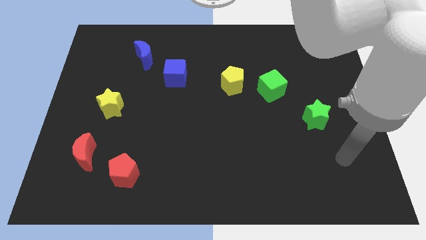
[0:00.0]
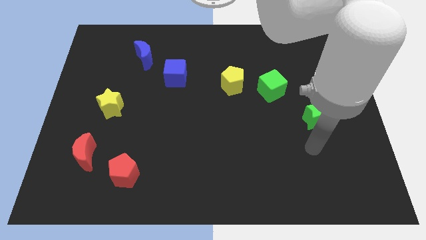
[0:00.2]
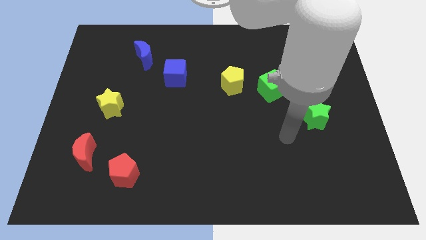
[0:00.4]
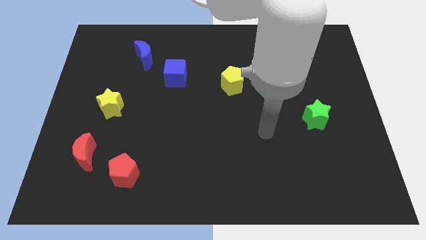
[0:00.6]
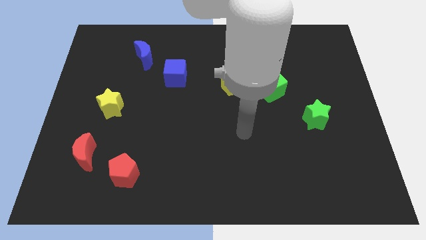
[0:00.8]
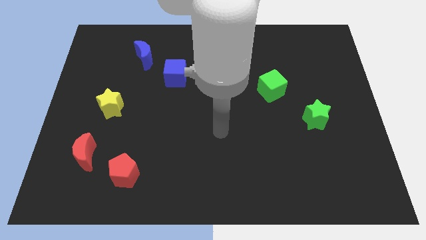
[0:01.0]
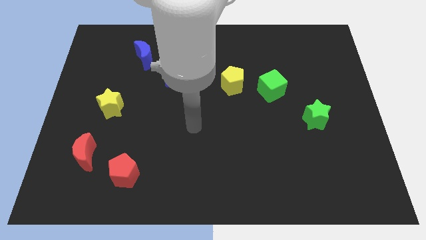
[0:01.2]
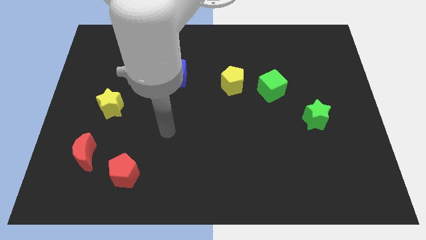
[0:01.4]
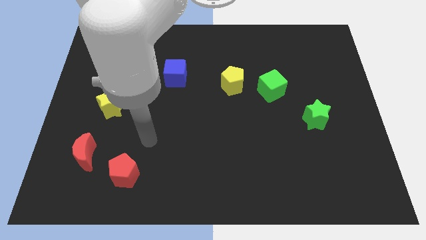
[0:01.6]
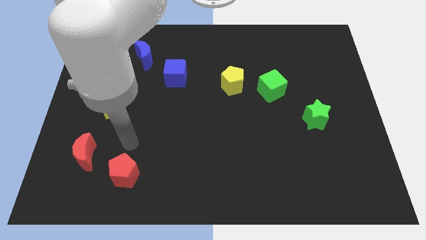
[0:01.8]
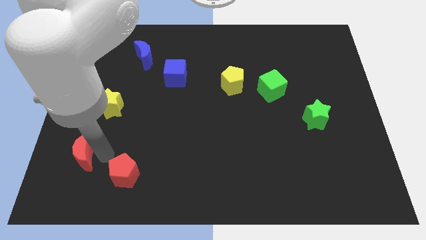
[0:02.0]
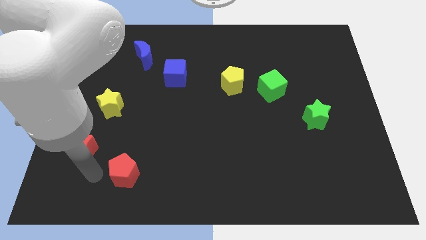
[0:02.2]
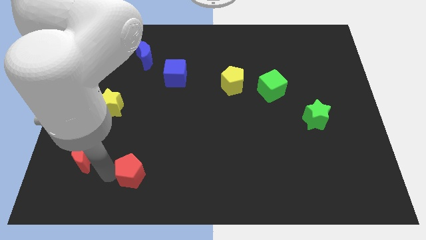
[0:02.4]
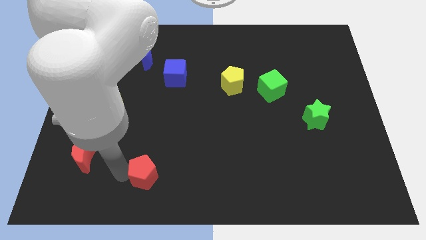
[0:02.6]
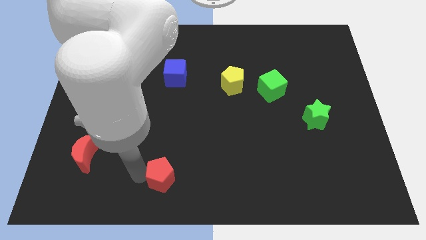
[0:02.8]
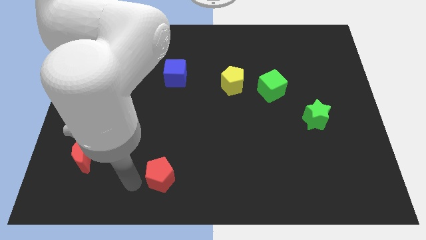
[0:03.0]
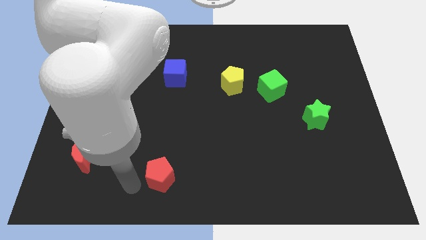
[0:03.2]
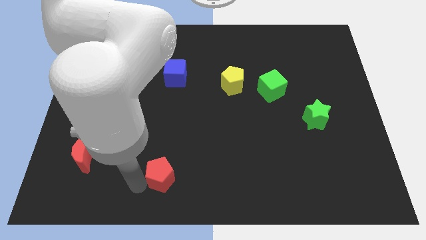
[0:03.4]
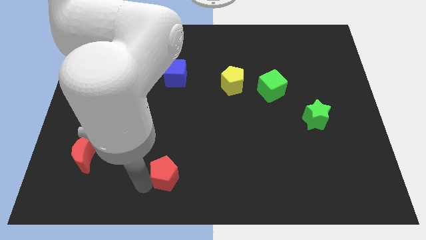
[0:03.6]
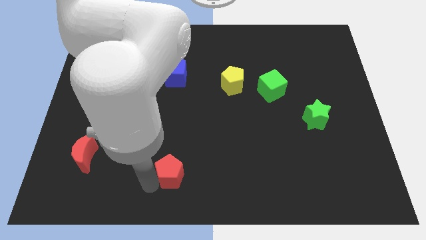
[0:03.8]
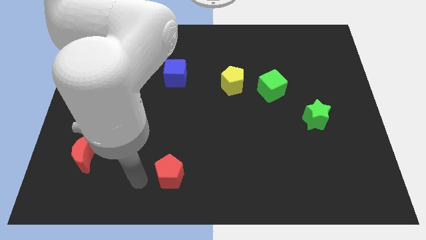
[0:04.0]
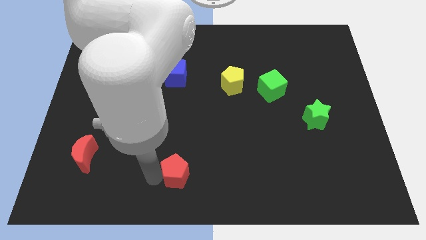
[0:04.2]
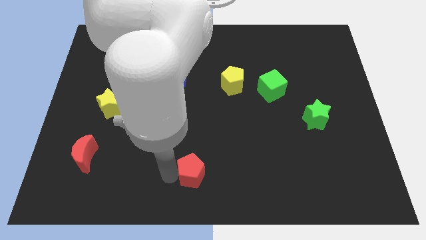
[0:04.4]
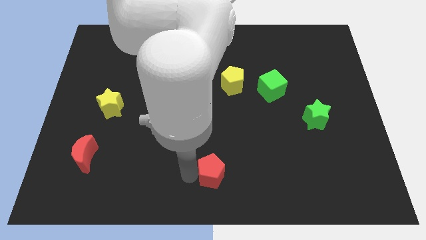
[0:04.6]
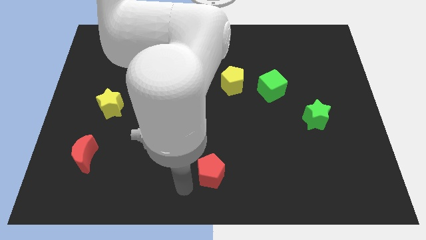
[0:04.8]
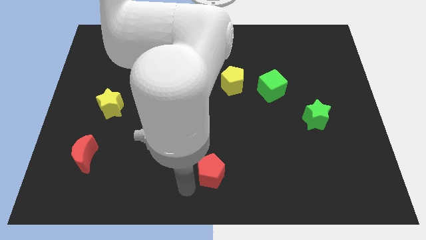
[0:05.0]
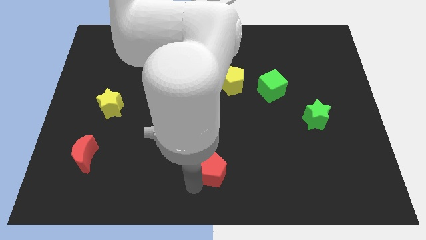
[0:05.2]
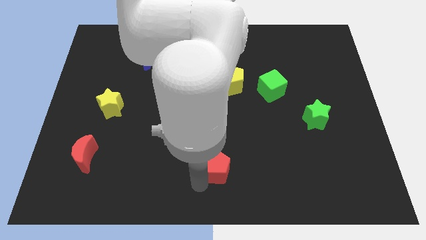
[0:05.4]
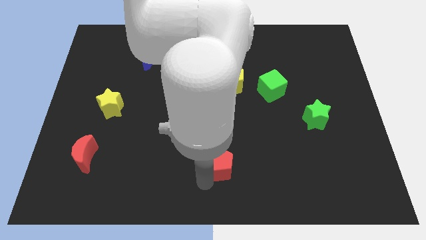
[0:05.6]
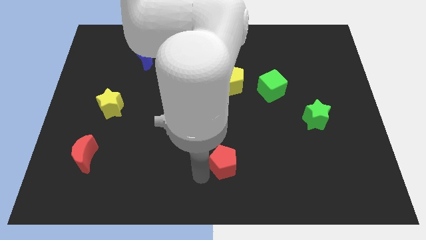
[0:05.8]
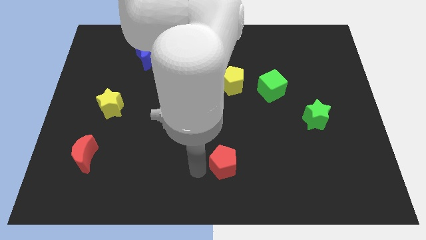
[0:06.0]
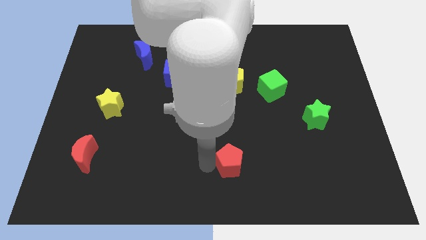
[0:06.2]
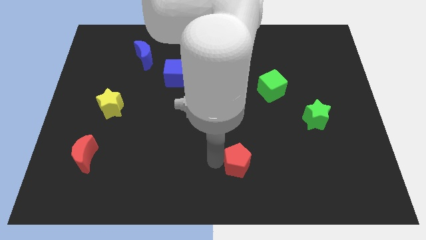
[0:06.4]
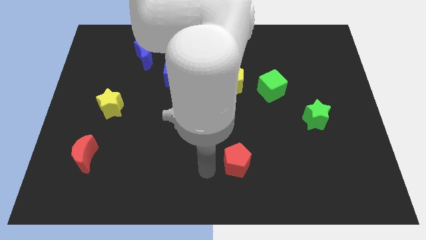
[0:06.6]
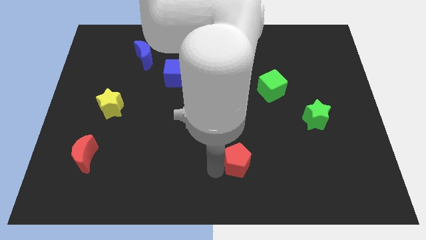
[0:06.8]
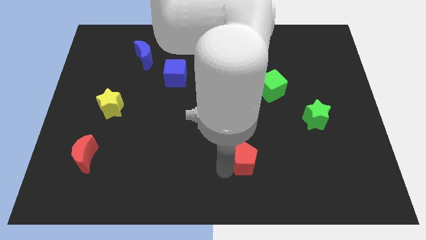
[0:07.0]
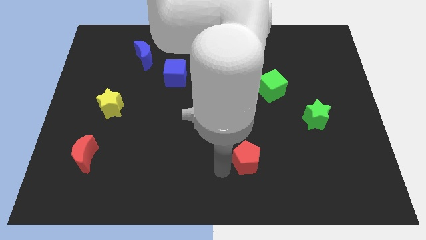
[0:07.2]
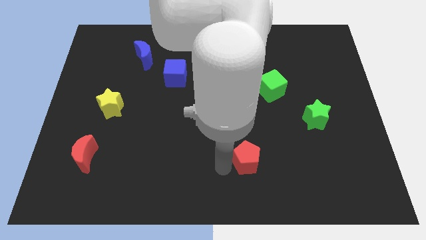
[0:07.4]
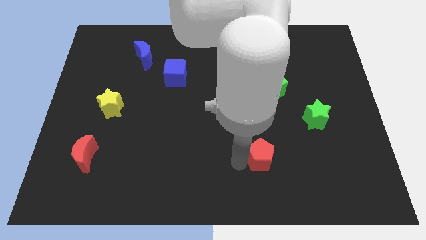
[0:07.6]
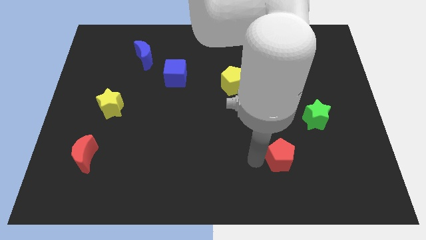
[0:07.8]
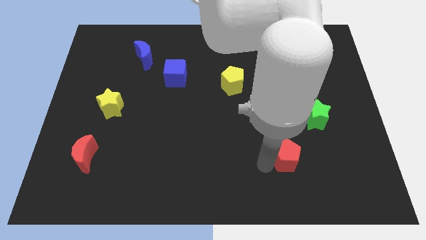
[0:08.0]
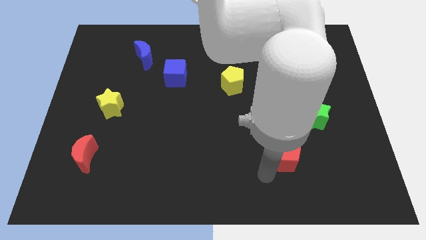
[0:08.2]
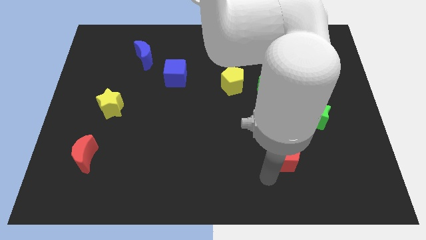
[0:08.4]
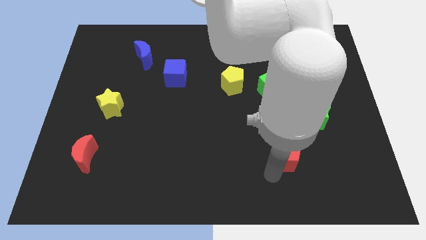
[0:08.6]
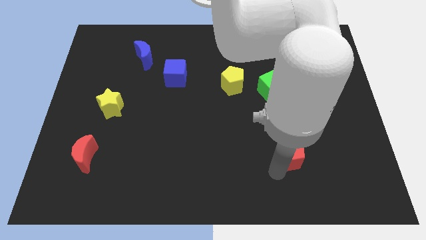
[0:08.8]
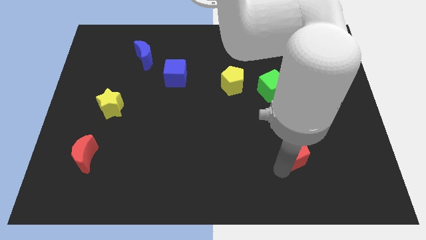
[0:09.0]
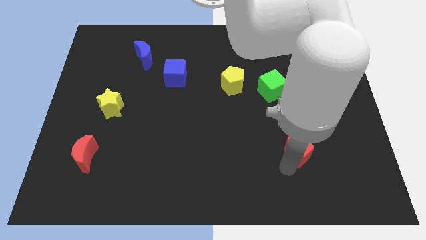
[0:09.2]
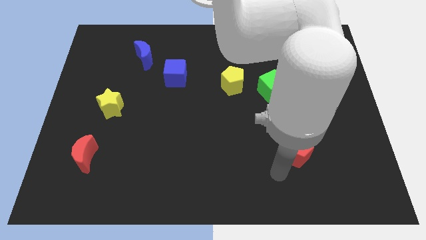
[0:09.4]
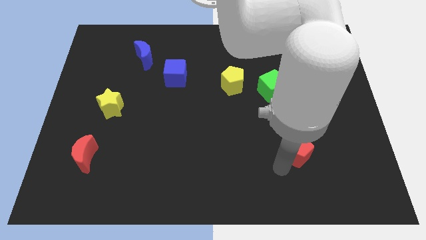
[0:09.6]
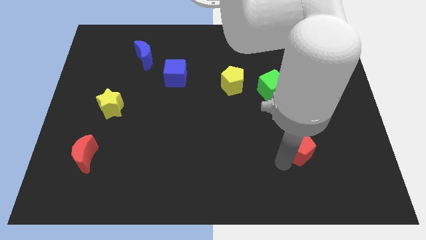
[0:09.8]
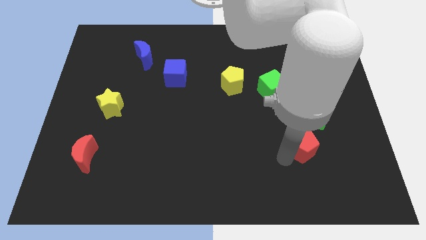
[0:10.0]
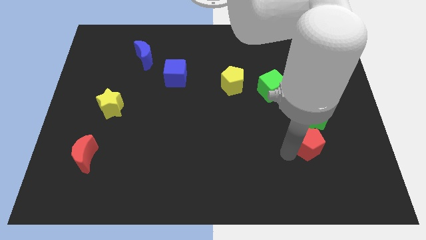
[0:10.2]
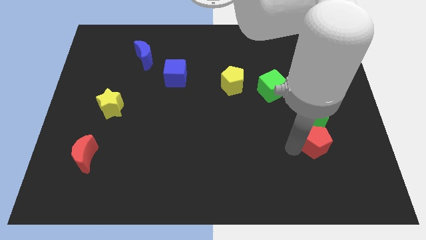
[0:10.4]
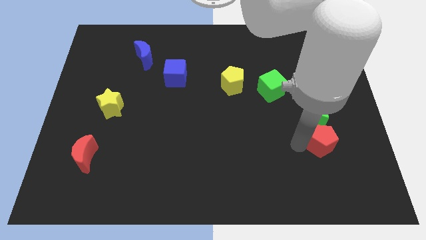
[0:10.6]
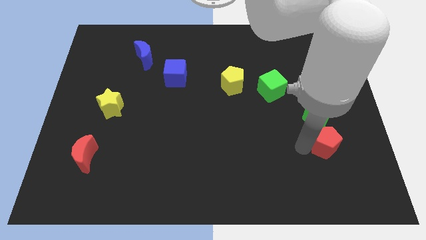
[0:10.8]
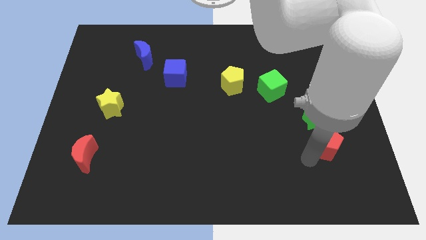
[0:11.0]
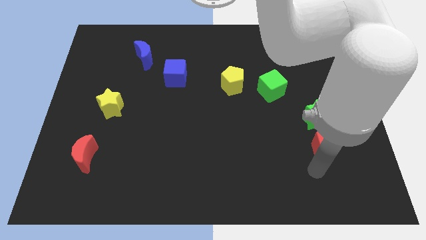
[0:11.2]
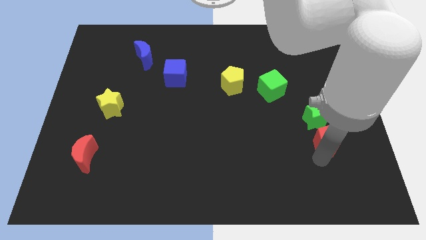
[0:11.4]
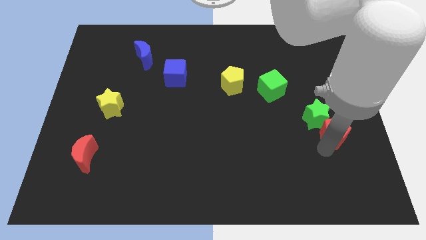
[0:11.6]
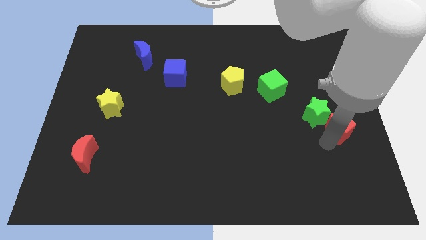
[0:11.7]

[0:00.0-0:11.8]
push the red pentagon to the right side

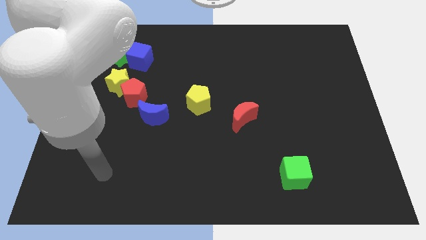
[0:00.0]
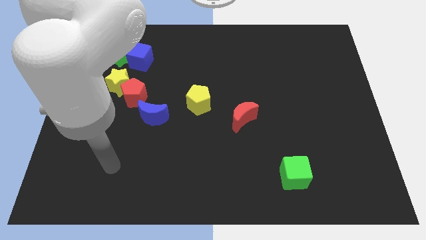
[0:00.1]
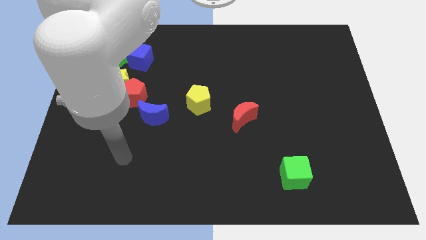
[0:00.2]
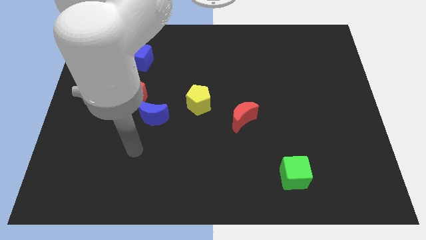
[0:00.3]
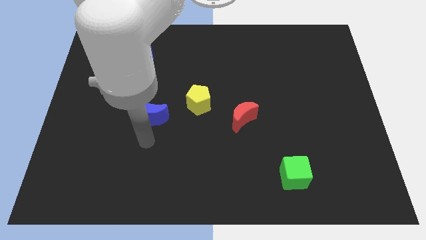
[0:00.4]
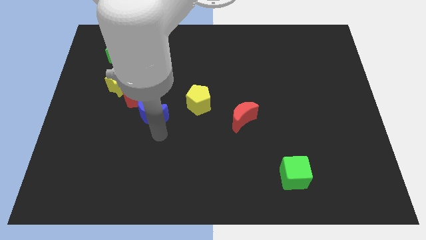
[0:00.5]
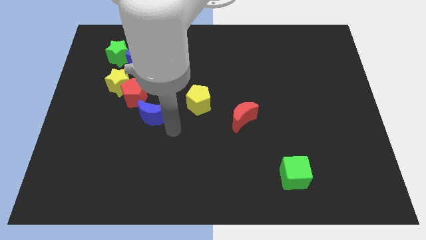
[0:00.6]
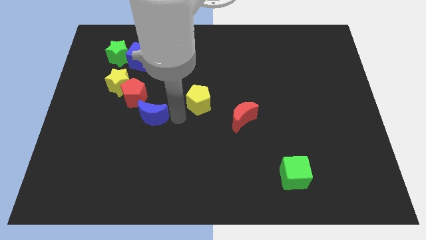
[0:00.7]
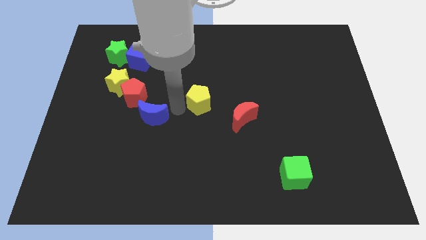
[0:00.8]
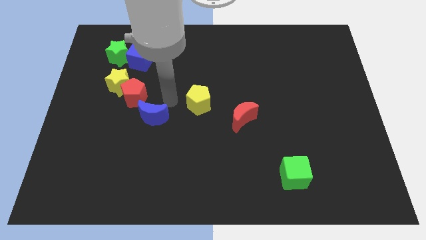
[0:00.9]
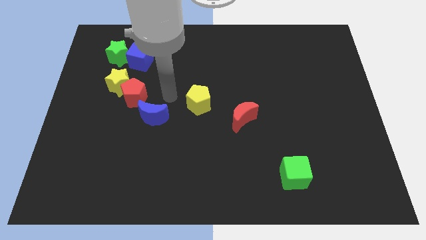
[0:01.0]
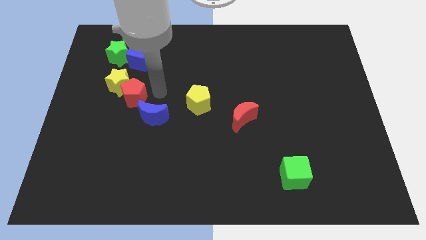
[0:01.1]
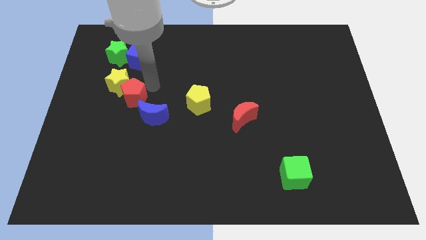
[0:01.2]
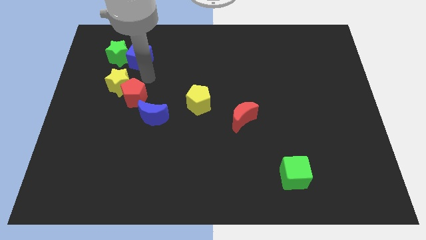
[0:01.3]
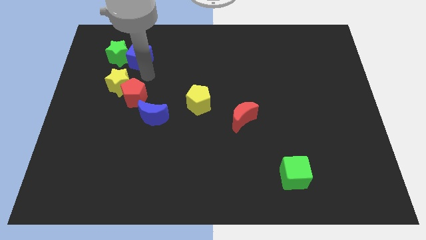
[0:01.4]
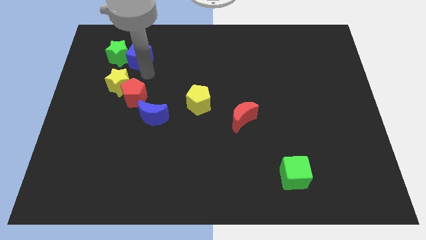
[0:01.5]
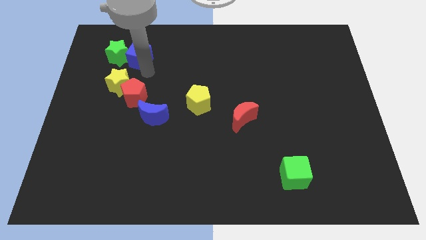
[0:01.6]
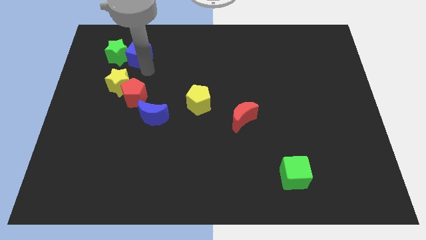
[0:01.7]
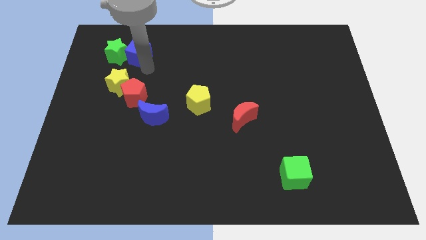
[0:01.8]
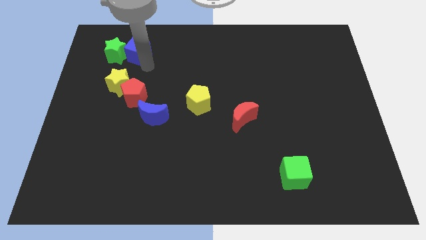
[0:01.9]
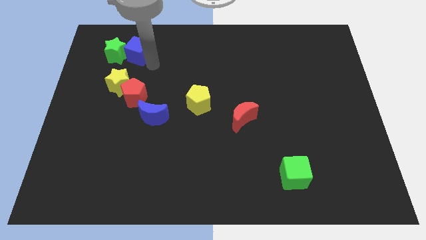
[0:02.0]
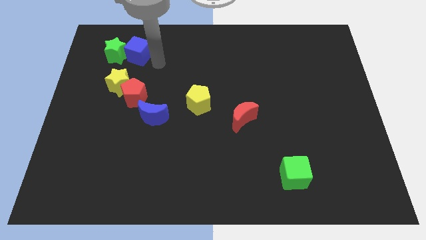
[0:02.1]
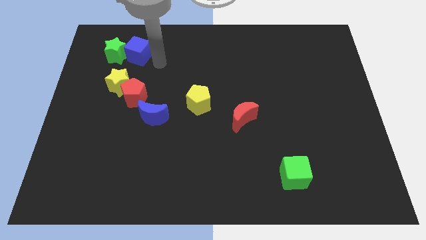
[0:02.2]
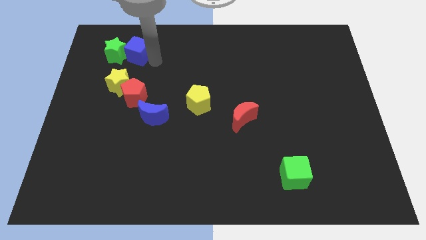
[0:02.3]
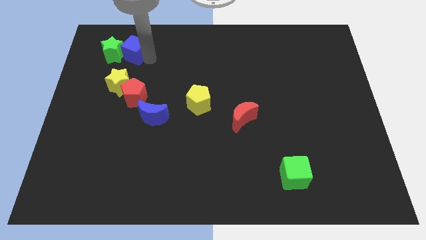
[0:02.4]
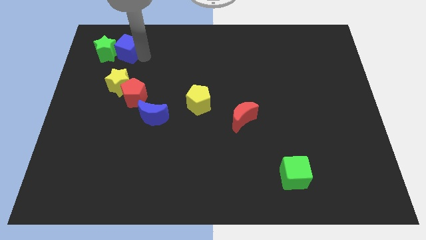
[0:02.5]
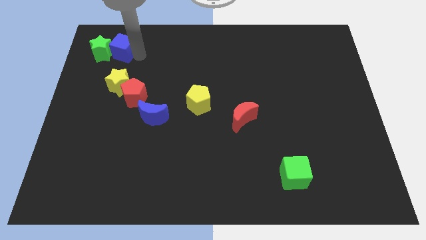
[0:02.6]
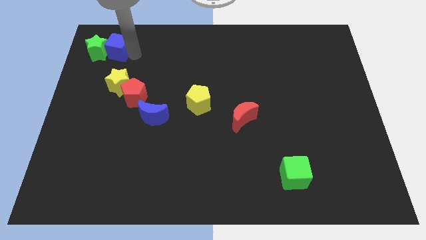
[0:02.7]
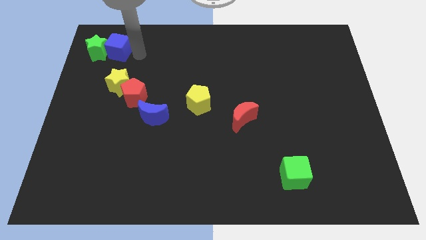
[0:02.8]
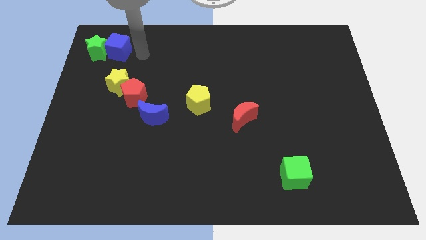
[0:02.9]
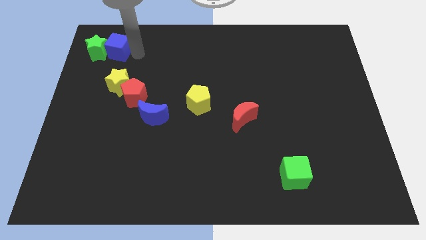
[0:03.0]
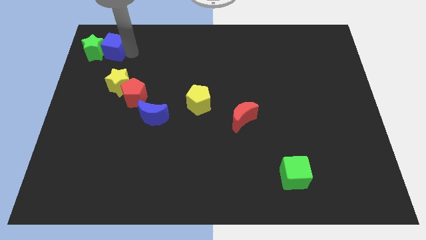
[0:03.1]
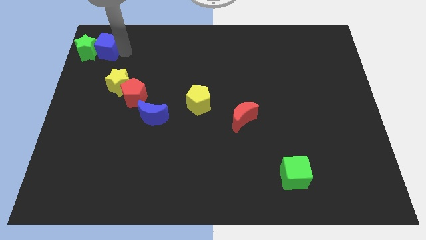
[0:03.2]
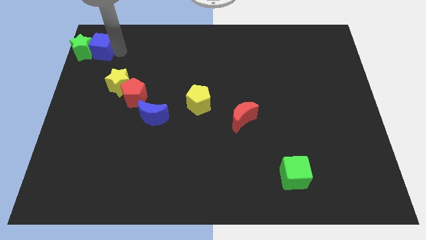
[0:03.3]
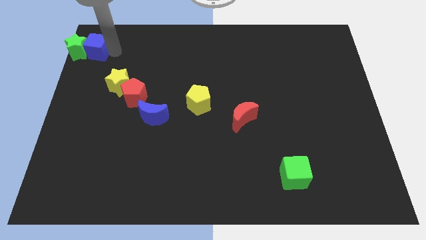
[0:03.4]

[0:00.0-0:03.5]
push the blue cube to the top left
